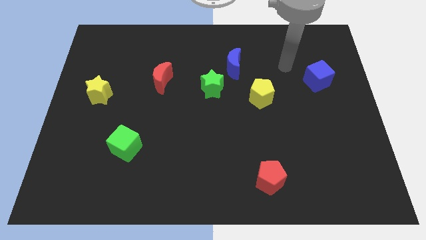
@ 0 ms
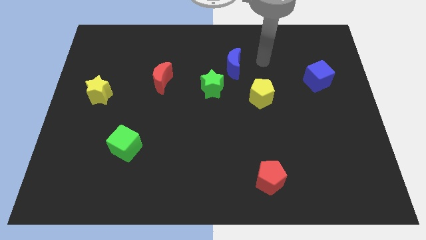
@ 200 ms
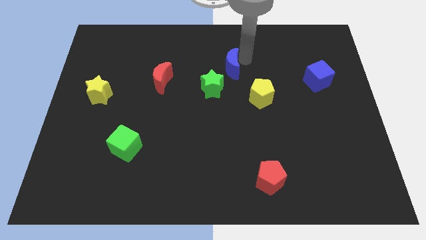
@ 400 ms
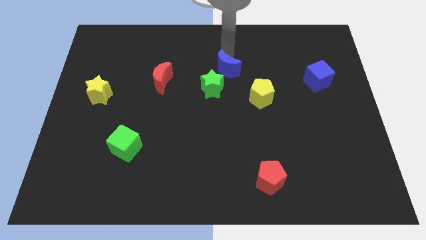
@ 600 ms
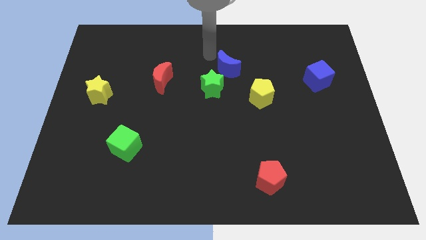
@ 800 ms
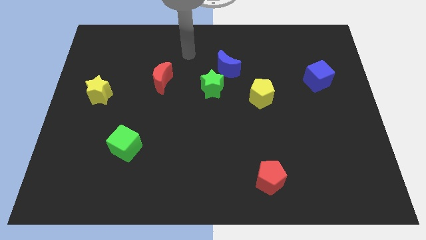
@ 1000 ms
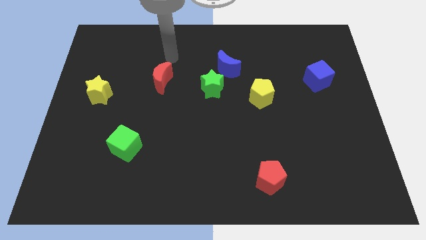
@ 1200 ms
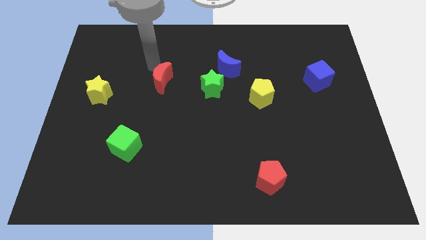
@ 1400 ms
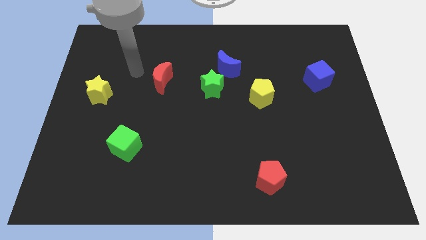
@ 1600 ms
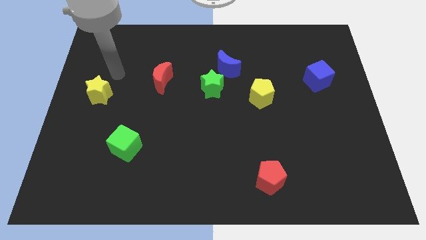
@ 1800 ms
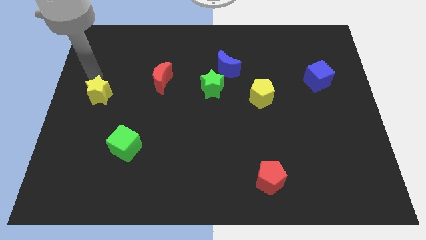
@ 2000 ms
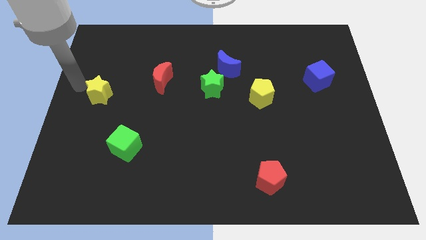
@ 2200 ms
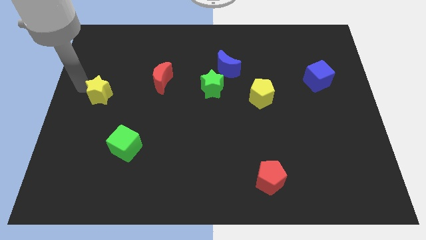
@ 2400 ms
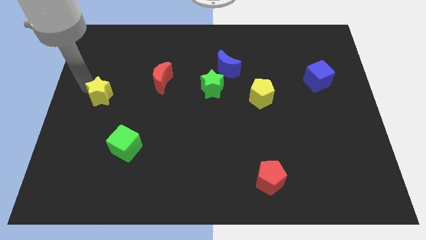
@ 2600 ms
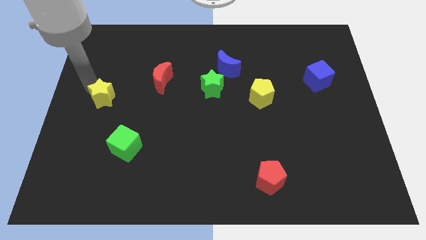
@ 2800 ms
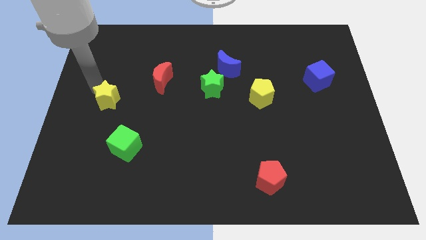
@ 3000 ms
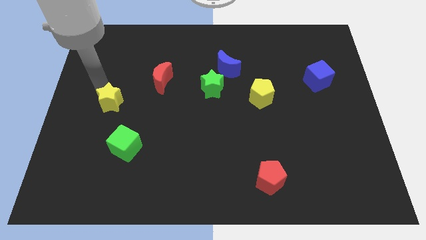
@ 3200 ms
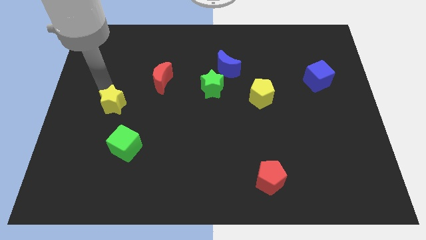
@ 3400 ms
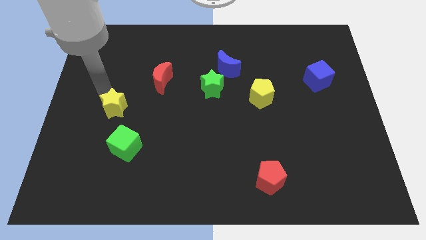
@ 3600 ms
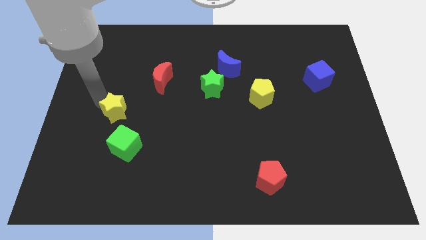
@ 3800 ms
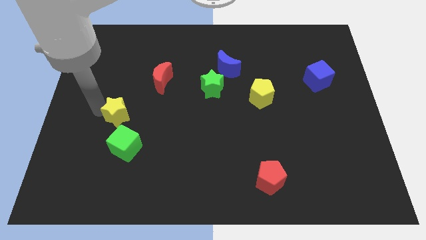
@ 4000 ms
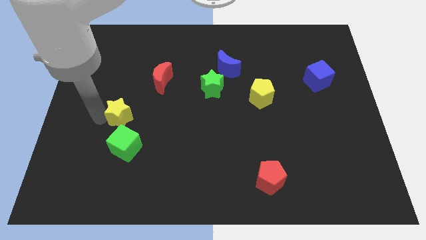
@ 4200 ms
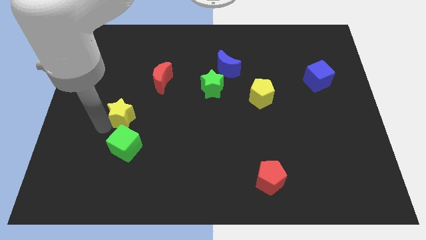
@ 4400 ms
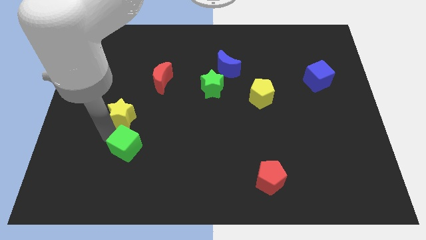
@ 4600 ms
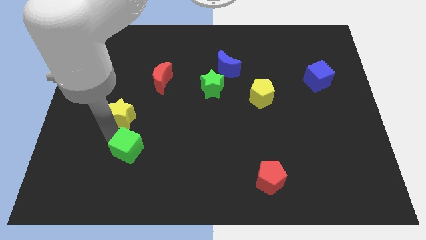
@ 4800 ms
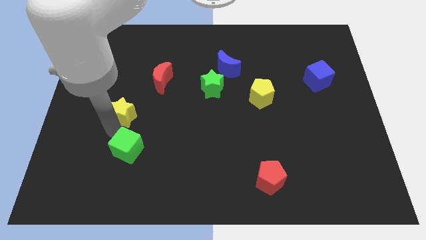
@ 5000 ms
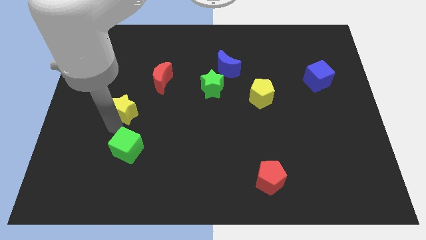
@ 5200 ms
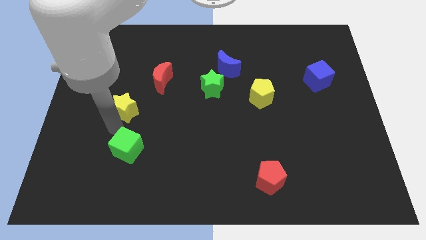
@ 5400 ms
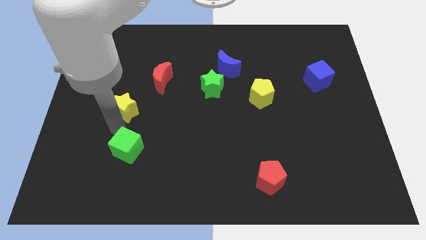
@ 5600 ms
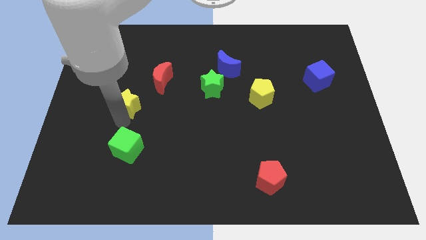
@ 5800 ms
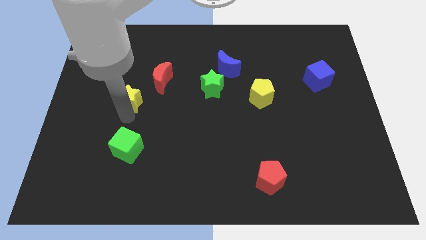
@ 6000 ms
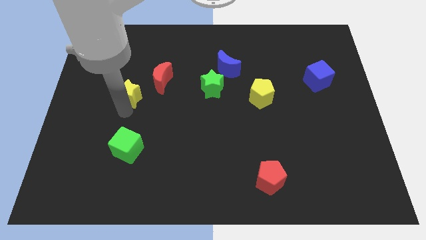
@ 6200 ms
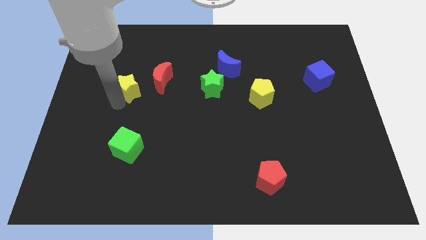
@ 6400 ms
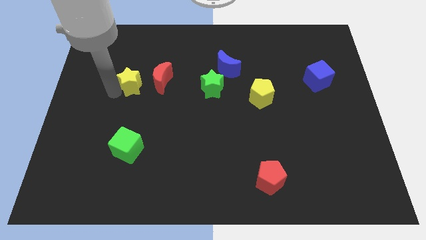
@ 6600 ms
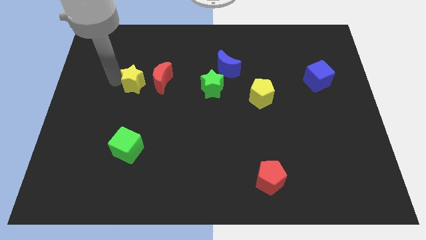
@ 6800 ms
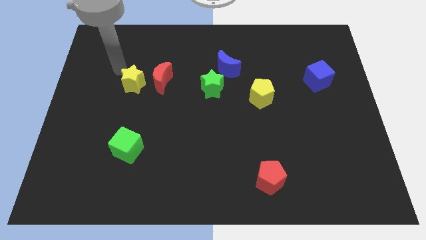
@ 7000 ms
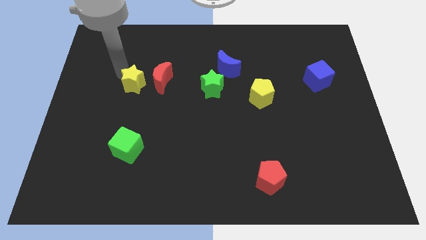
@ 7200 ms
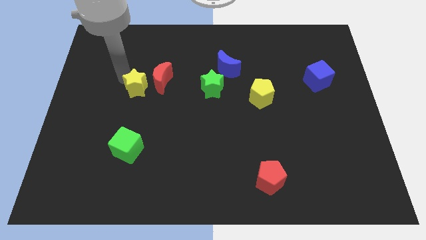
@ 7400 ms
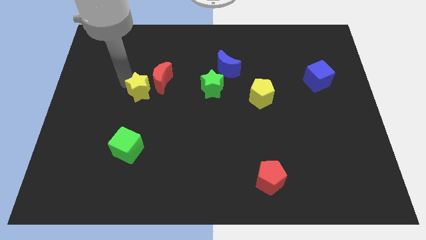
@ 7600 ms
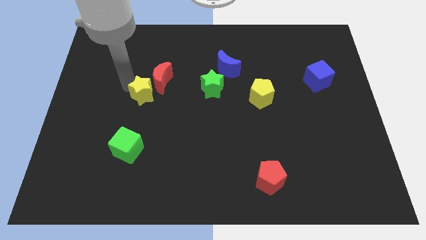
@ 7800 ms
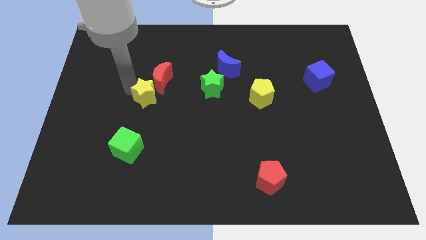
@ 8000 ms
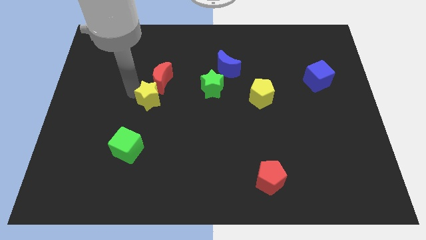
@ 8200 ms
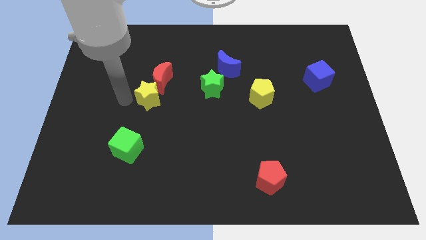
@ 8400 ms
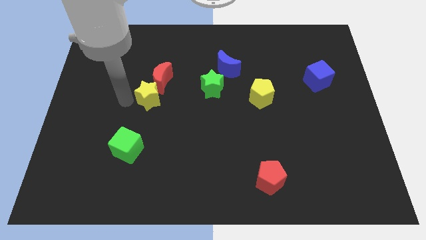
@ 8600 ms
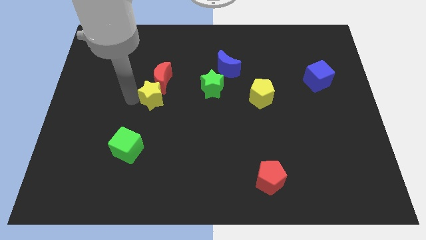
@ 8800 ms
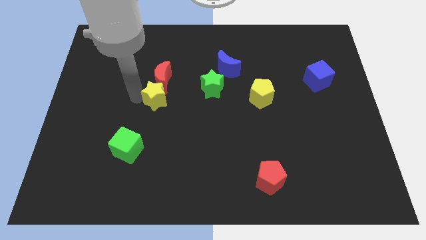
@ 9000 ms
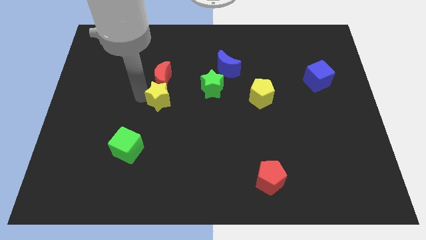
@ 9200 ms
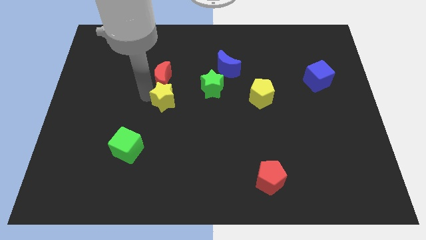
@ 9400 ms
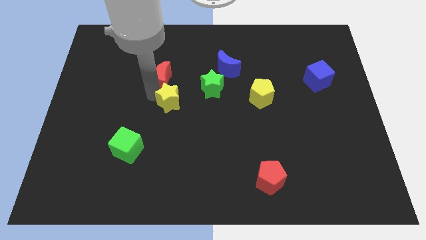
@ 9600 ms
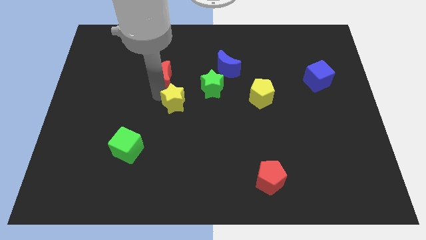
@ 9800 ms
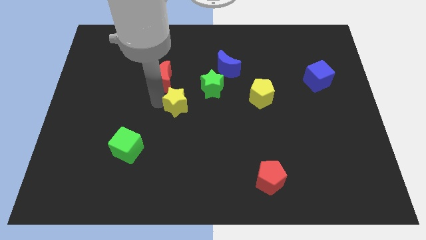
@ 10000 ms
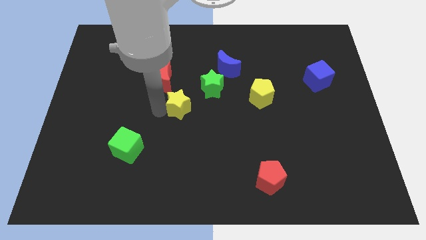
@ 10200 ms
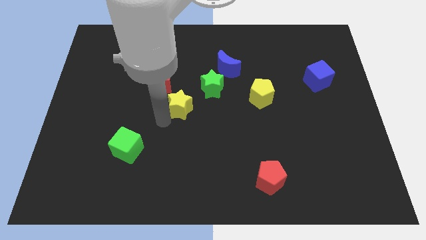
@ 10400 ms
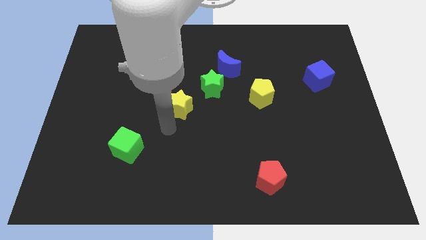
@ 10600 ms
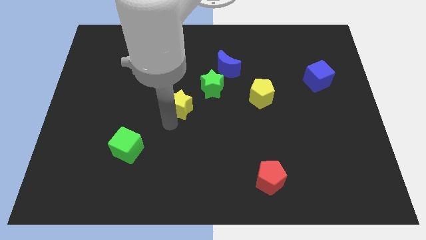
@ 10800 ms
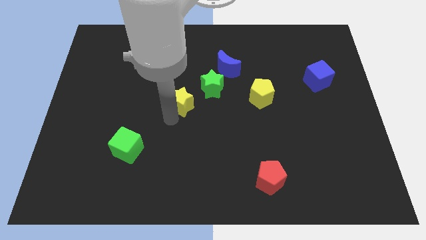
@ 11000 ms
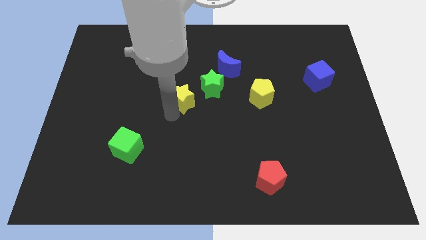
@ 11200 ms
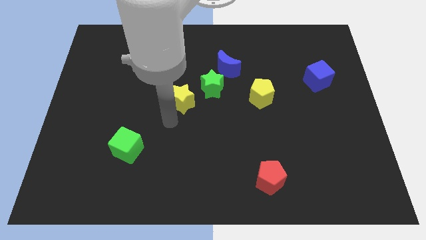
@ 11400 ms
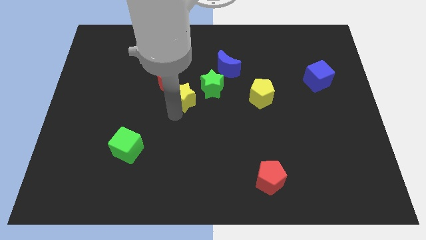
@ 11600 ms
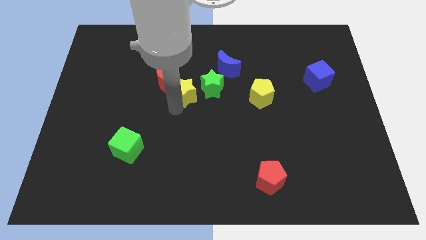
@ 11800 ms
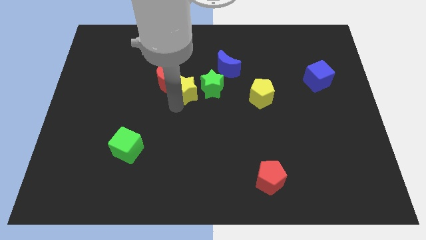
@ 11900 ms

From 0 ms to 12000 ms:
slide the yellow star close to the green star
